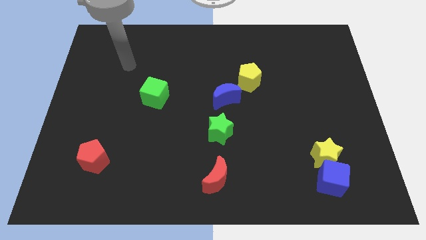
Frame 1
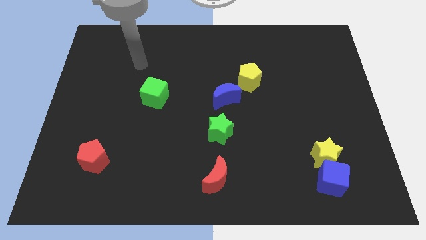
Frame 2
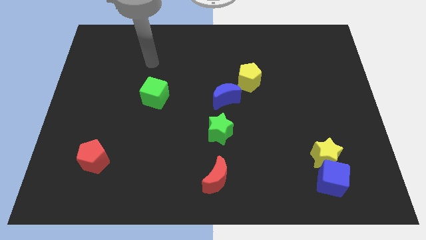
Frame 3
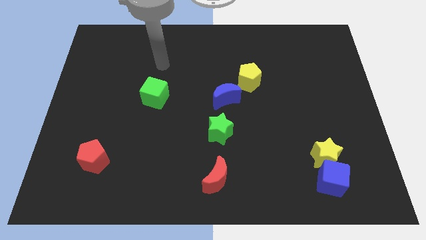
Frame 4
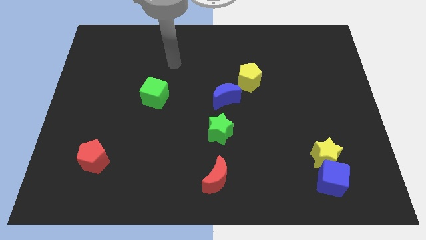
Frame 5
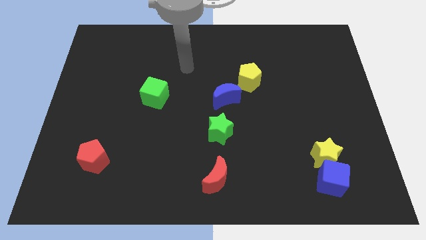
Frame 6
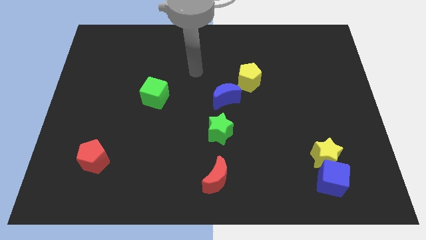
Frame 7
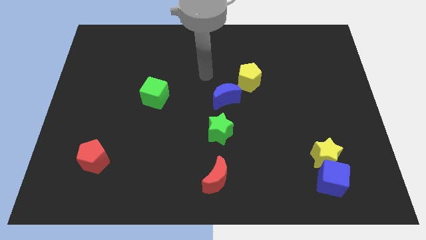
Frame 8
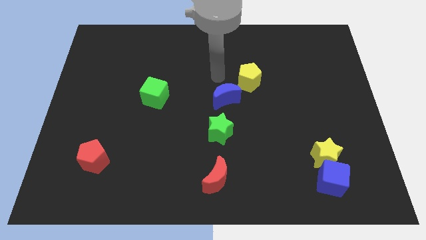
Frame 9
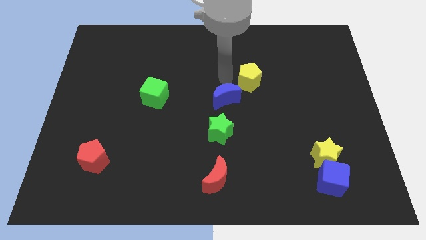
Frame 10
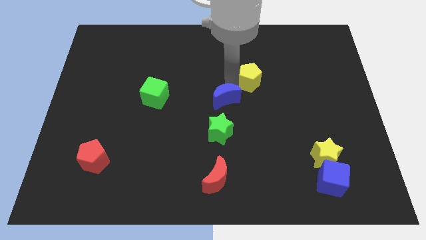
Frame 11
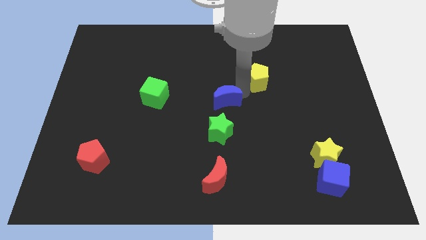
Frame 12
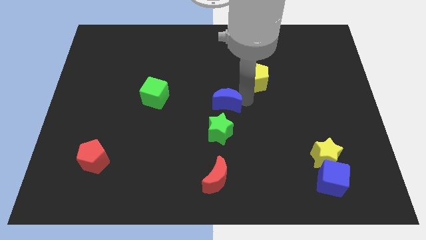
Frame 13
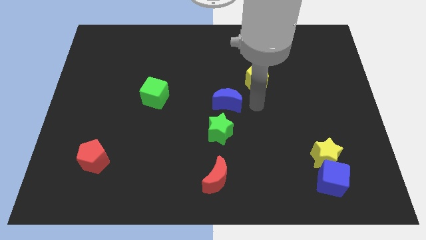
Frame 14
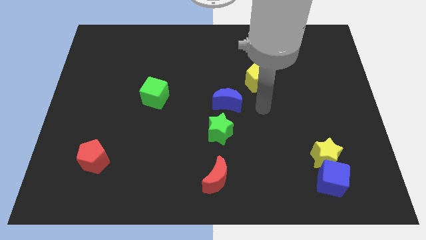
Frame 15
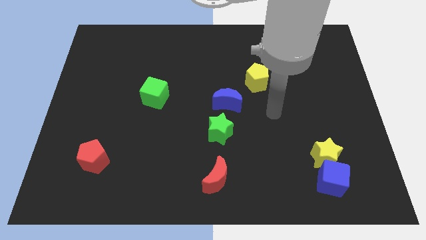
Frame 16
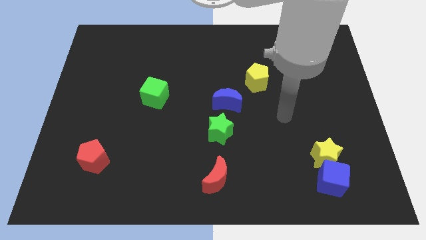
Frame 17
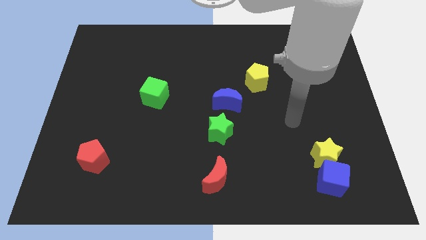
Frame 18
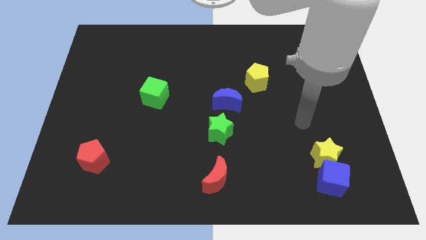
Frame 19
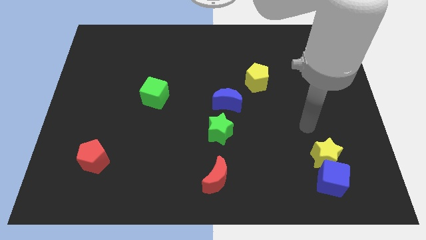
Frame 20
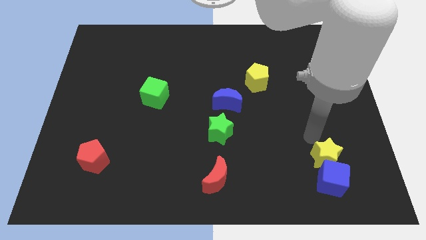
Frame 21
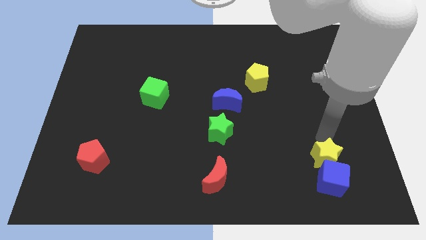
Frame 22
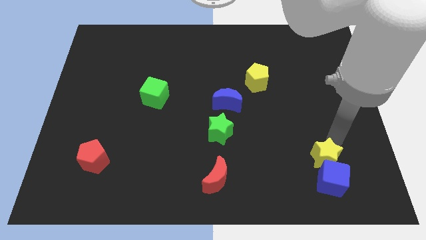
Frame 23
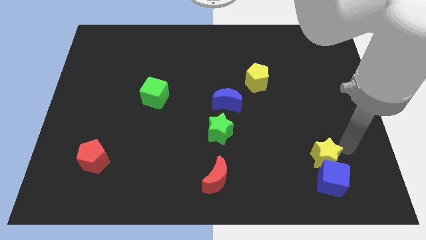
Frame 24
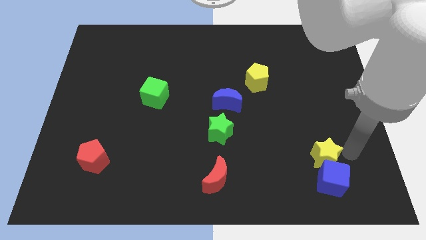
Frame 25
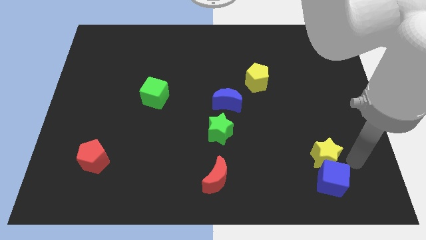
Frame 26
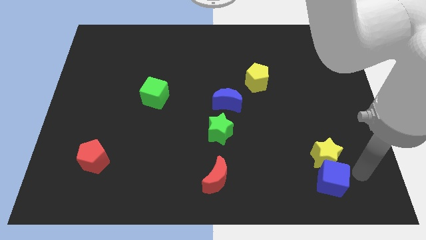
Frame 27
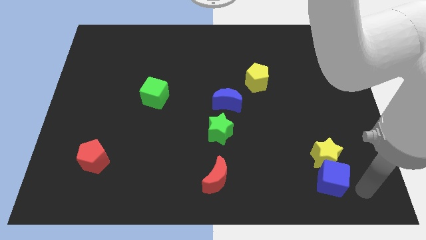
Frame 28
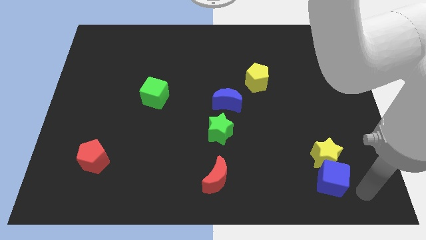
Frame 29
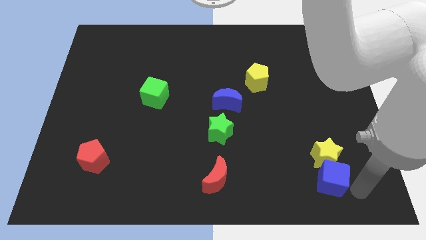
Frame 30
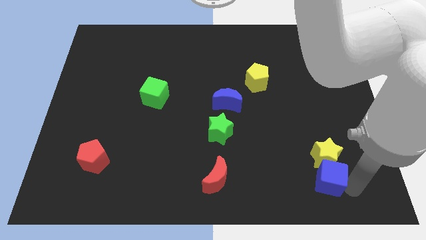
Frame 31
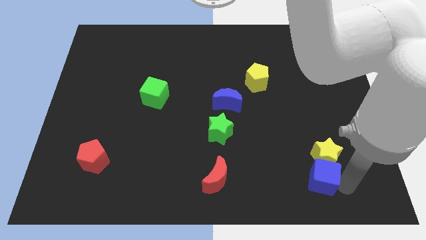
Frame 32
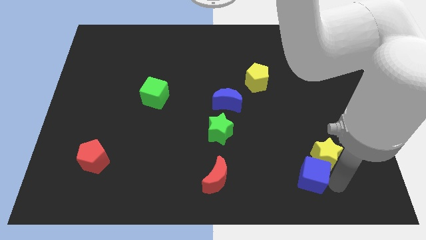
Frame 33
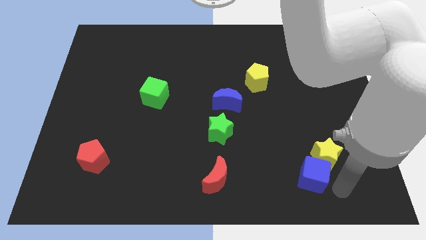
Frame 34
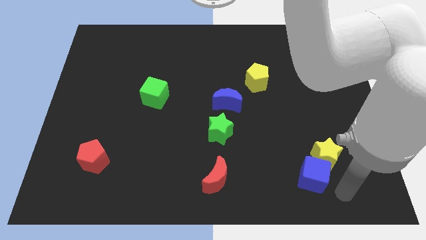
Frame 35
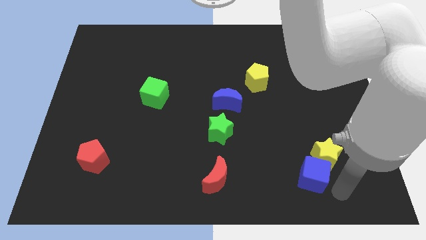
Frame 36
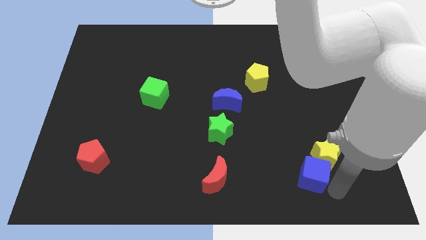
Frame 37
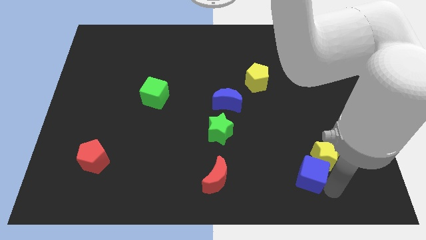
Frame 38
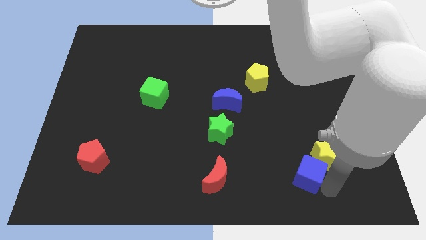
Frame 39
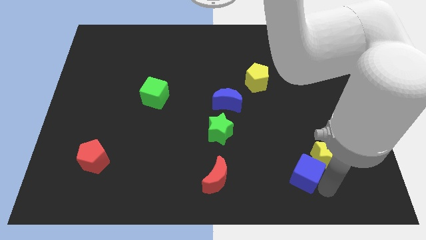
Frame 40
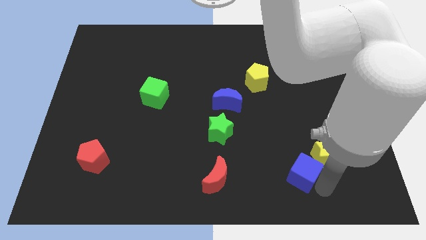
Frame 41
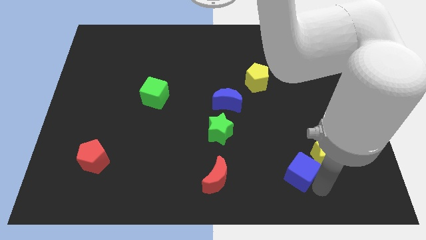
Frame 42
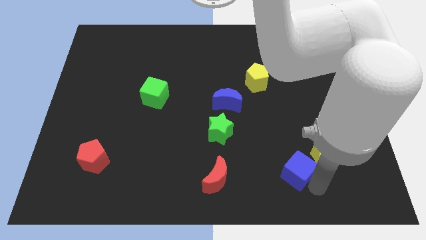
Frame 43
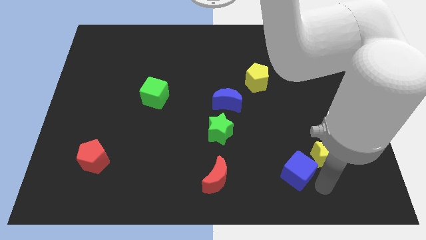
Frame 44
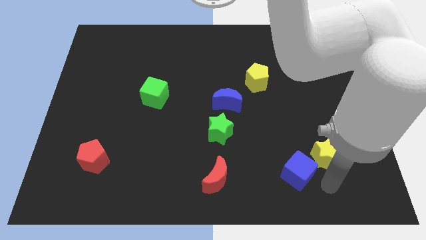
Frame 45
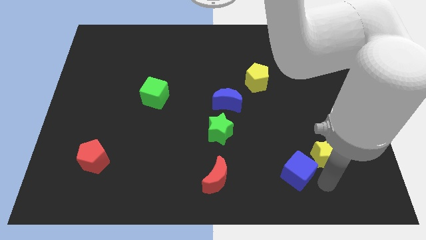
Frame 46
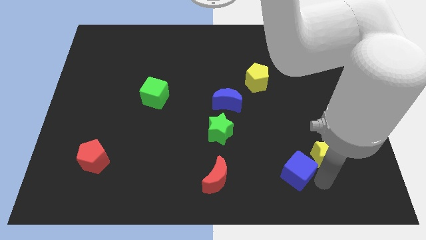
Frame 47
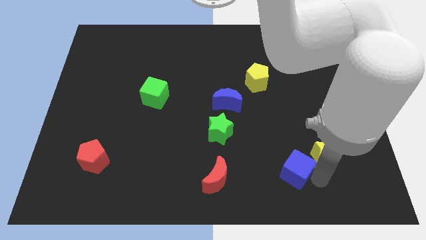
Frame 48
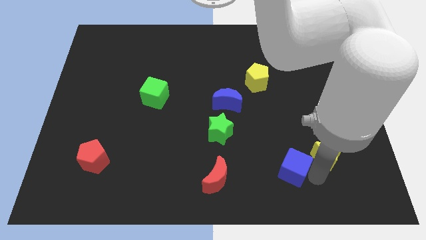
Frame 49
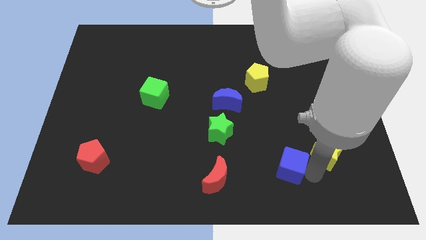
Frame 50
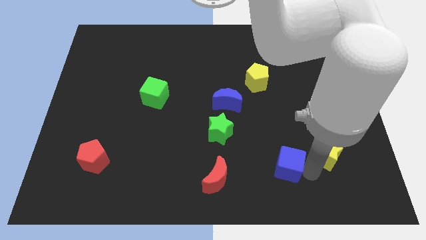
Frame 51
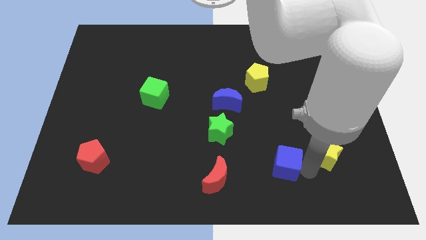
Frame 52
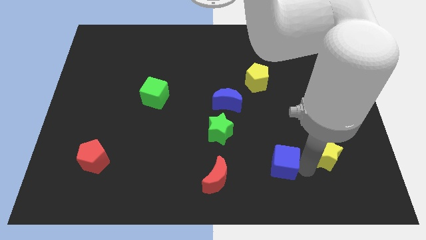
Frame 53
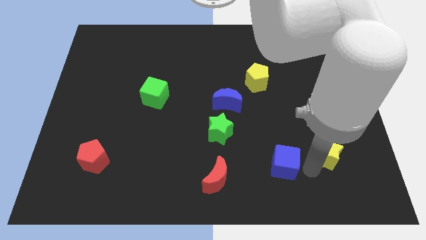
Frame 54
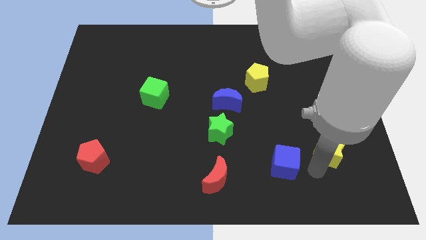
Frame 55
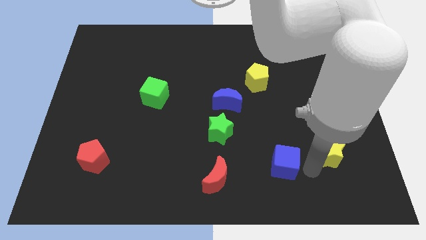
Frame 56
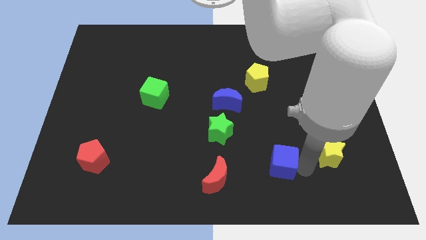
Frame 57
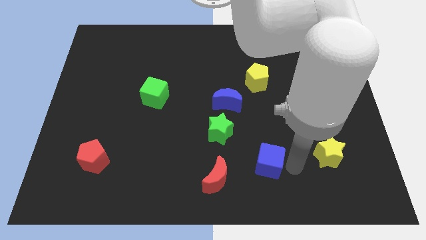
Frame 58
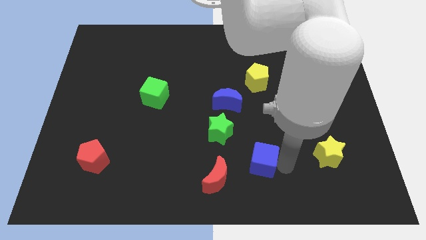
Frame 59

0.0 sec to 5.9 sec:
push the blue cube to the top right of the red moon

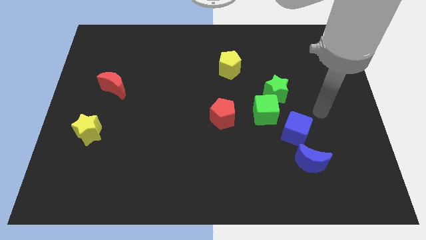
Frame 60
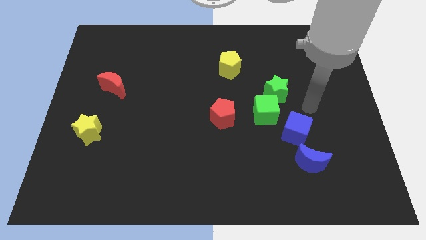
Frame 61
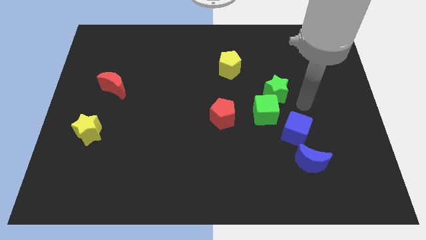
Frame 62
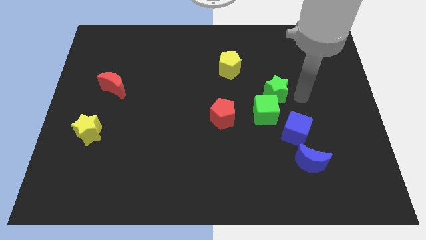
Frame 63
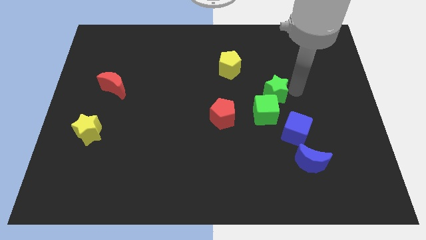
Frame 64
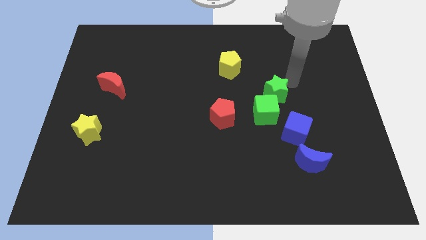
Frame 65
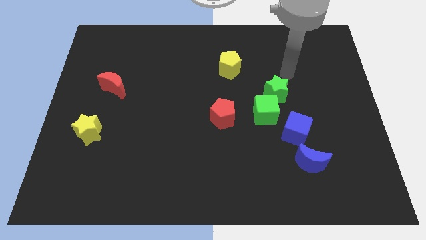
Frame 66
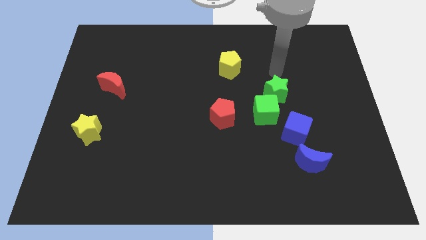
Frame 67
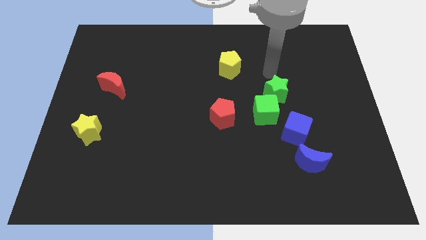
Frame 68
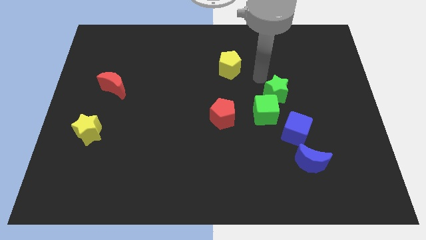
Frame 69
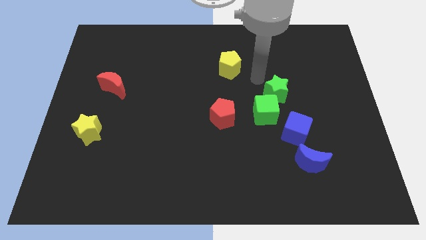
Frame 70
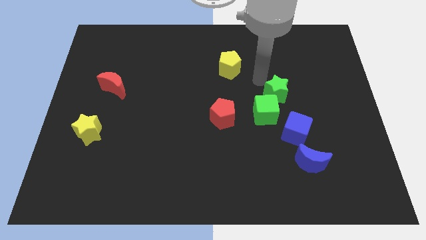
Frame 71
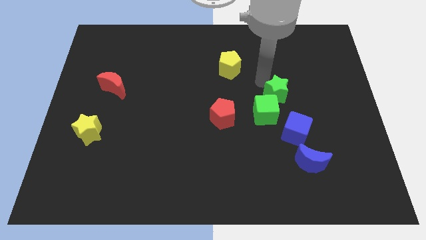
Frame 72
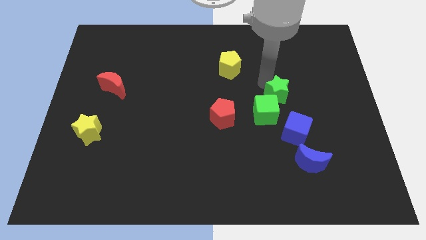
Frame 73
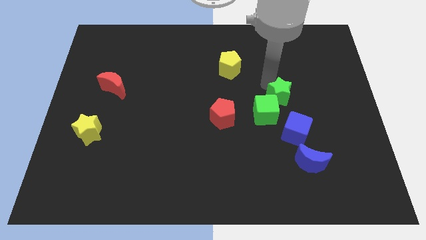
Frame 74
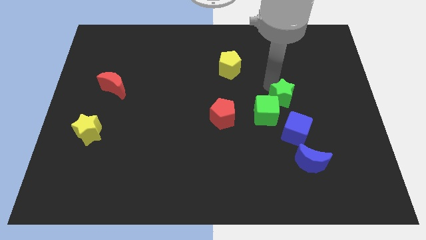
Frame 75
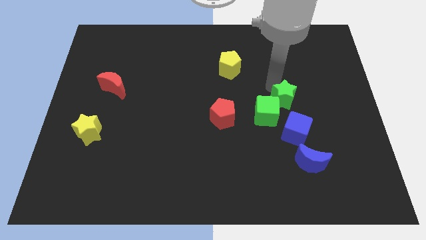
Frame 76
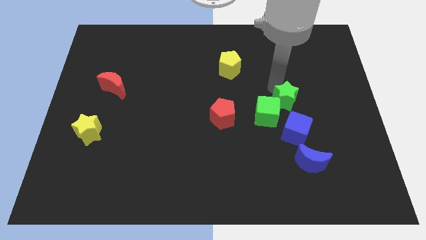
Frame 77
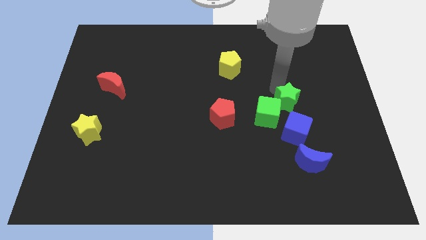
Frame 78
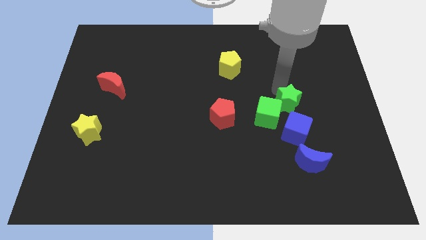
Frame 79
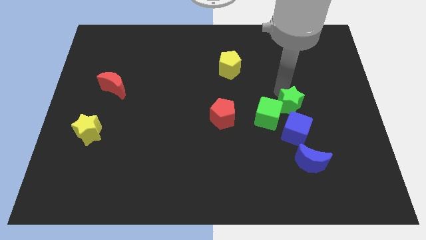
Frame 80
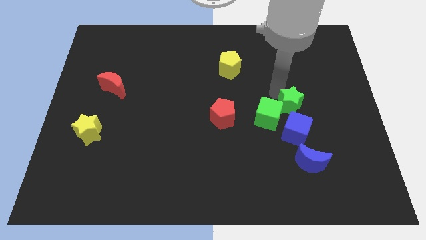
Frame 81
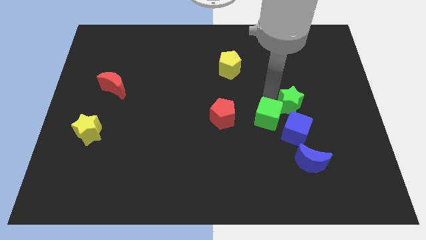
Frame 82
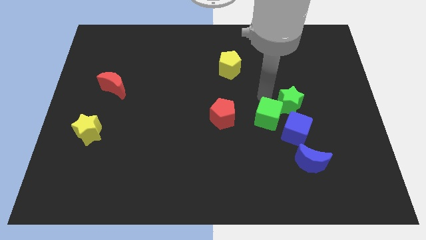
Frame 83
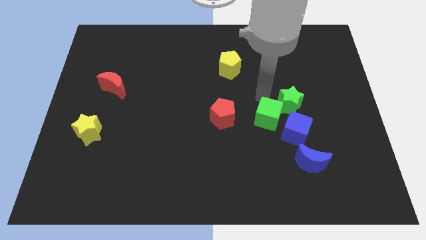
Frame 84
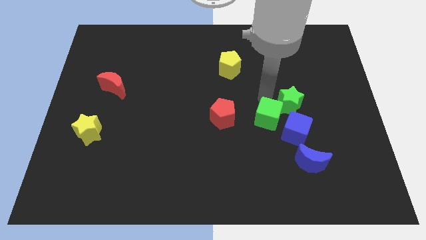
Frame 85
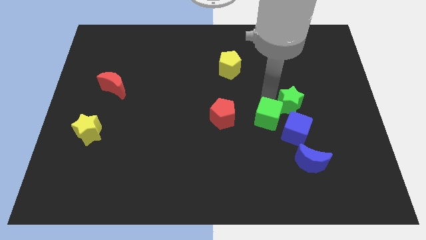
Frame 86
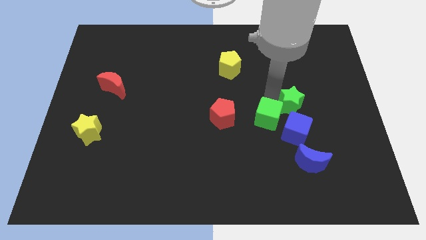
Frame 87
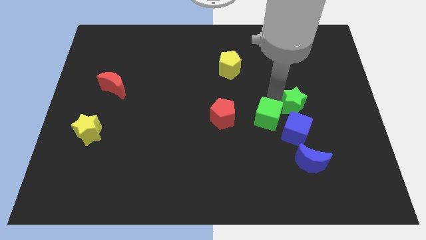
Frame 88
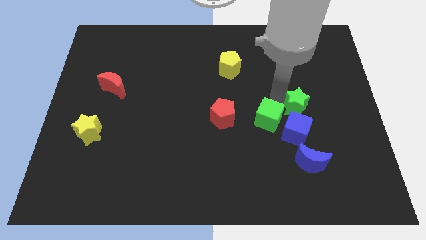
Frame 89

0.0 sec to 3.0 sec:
push the green star to the top right side of the blue cube

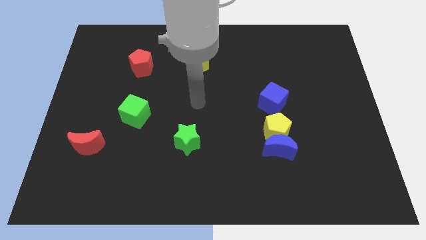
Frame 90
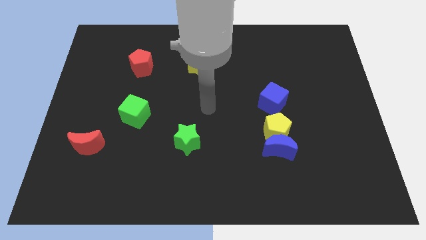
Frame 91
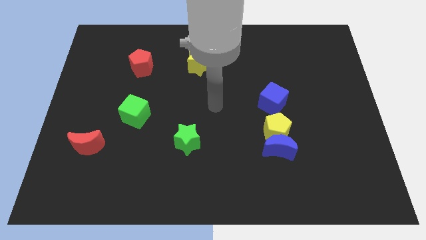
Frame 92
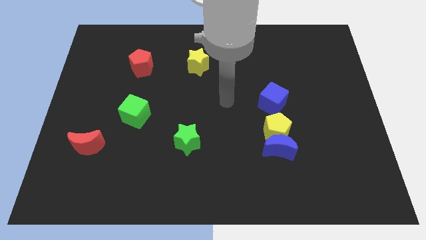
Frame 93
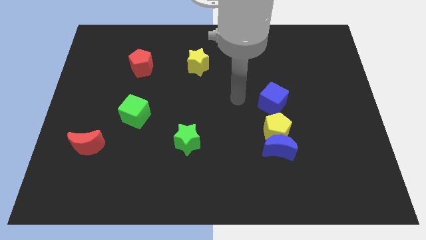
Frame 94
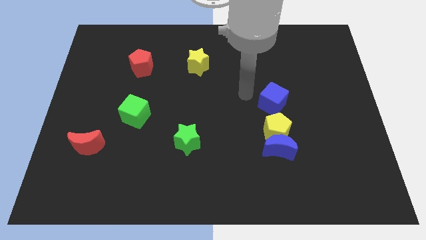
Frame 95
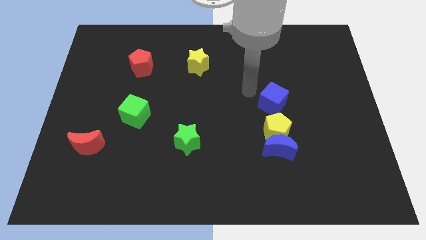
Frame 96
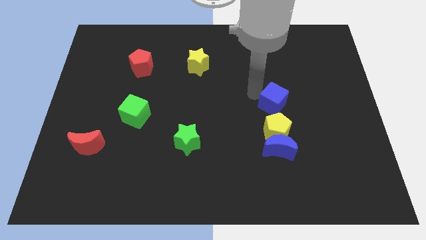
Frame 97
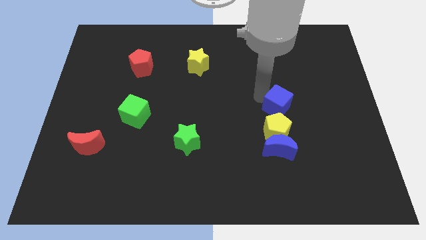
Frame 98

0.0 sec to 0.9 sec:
slide the blue cube to the top right of the yellow pentagon
